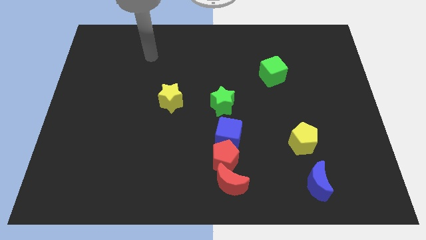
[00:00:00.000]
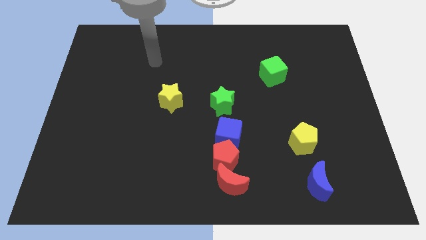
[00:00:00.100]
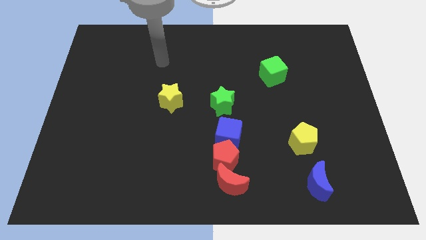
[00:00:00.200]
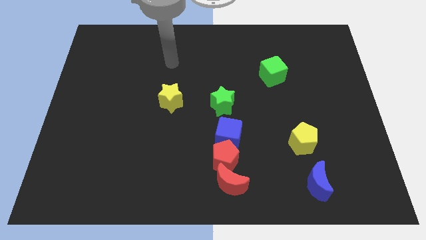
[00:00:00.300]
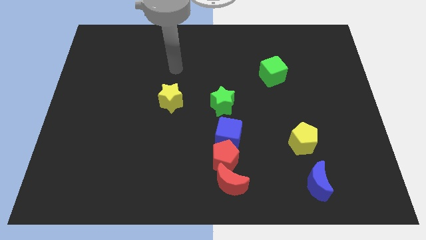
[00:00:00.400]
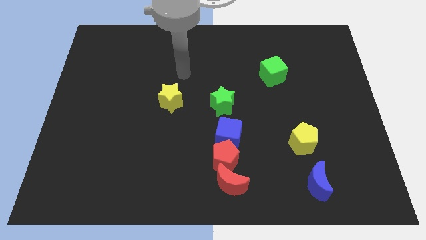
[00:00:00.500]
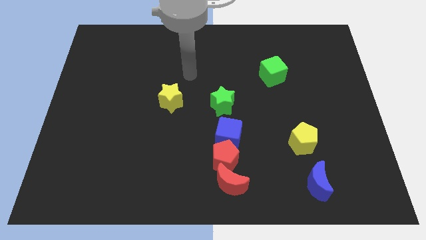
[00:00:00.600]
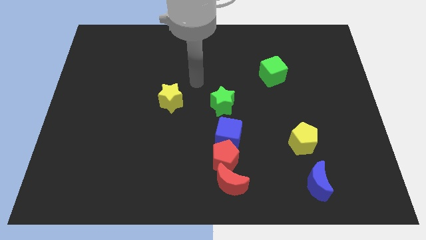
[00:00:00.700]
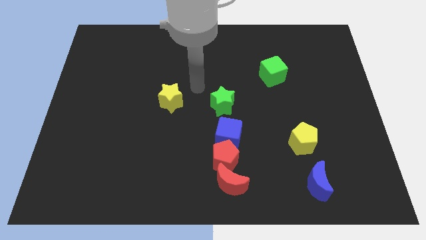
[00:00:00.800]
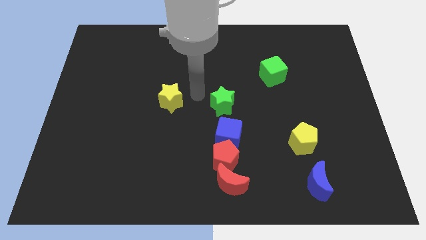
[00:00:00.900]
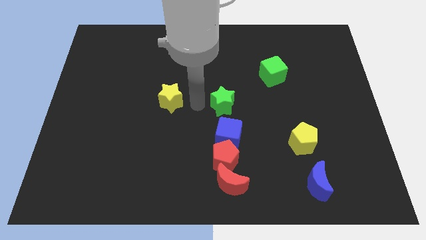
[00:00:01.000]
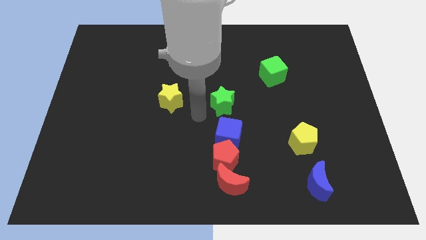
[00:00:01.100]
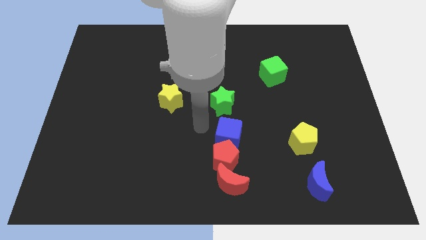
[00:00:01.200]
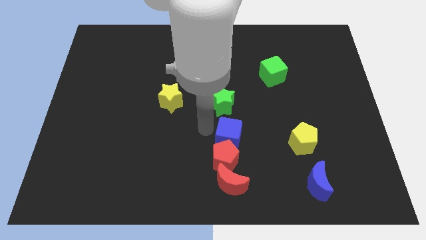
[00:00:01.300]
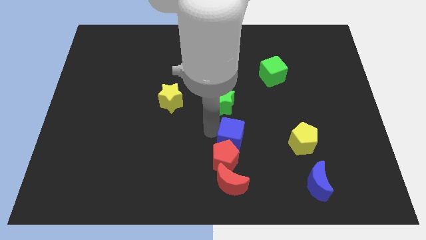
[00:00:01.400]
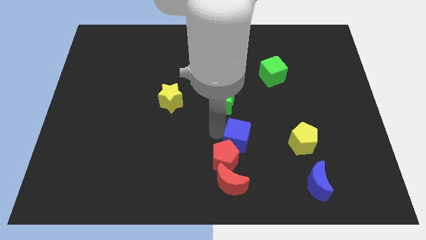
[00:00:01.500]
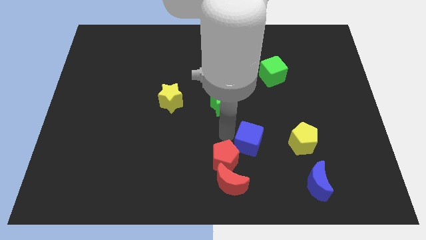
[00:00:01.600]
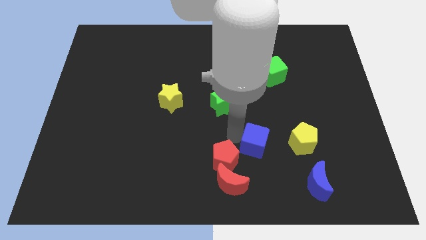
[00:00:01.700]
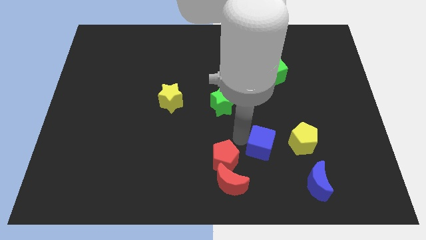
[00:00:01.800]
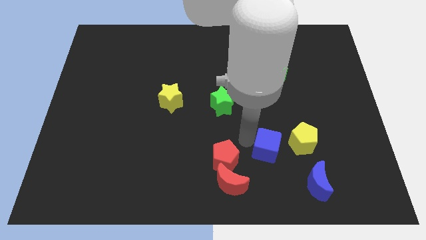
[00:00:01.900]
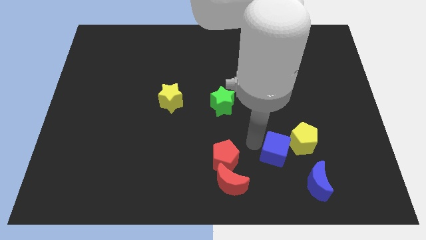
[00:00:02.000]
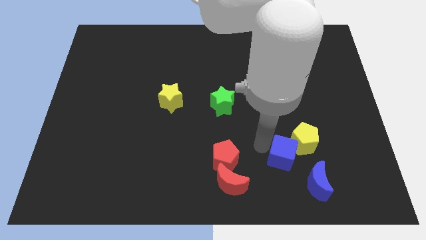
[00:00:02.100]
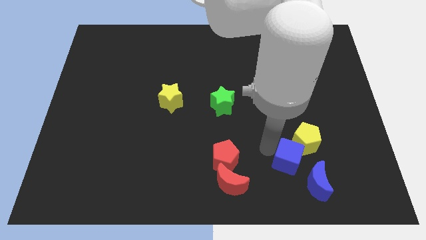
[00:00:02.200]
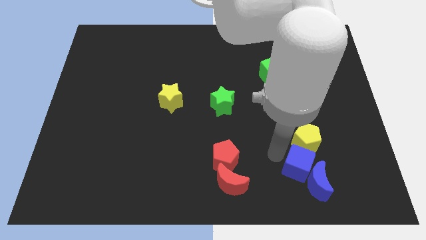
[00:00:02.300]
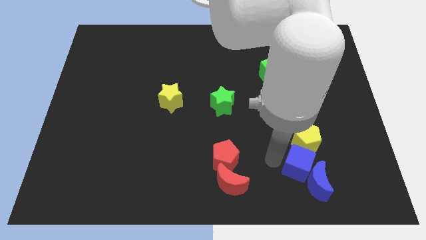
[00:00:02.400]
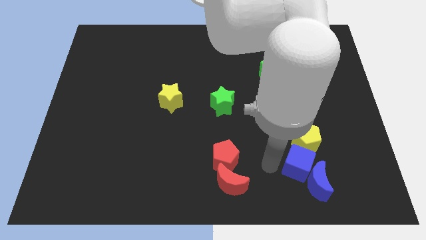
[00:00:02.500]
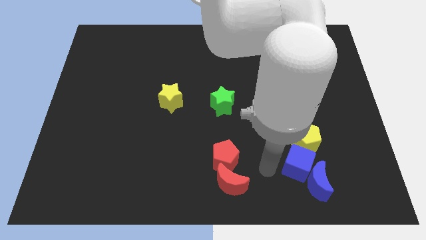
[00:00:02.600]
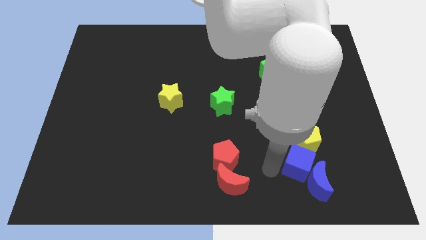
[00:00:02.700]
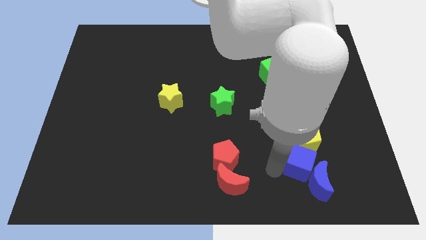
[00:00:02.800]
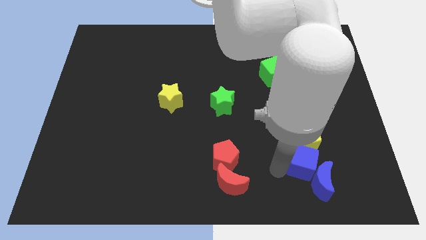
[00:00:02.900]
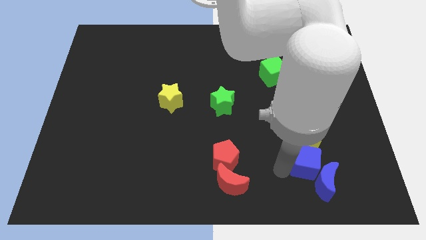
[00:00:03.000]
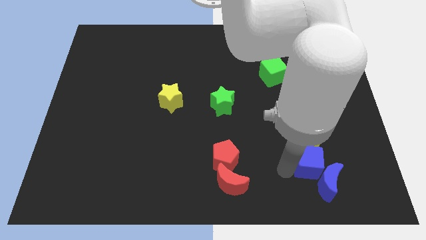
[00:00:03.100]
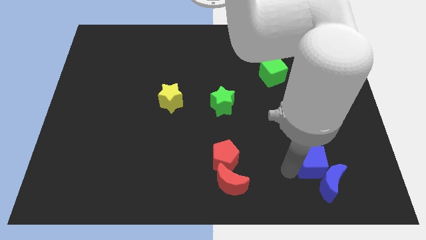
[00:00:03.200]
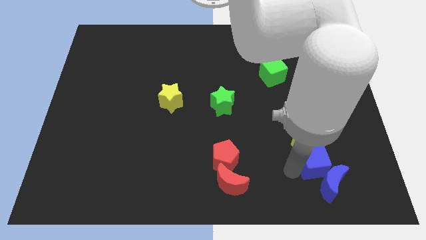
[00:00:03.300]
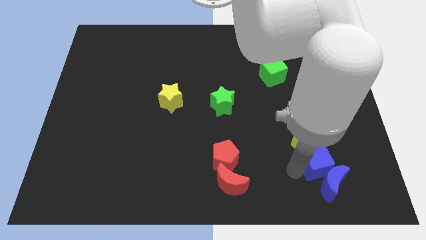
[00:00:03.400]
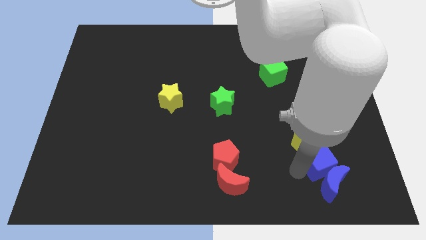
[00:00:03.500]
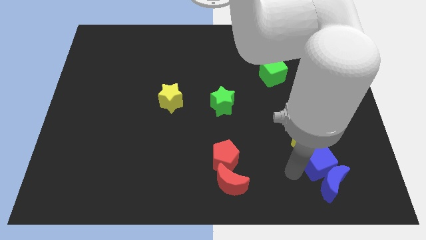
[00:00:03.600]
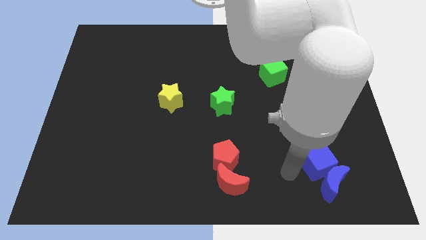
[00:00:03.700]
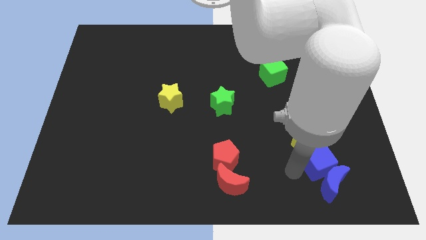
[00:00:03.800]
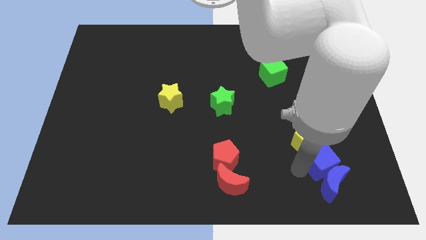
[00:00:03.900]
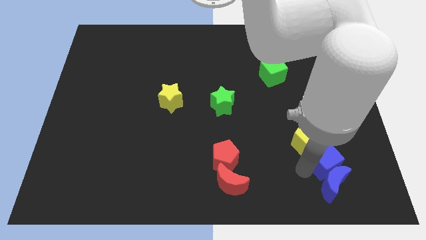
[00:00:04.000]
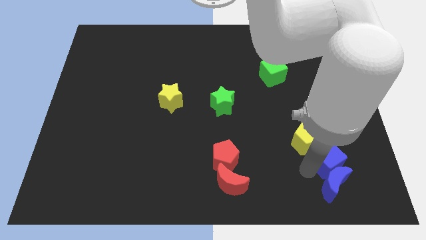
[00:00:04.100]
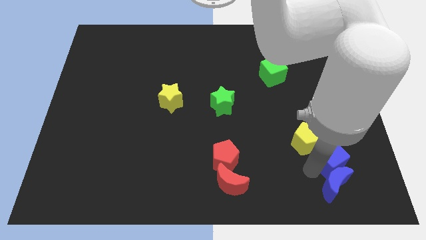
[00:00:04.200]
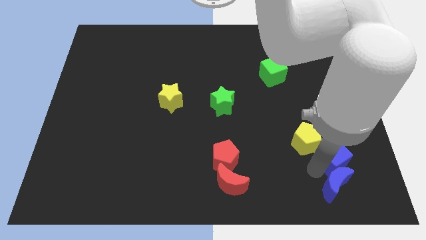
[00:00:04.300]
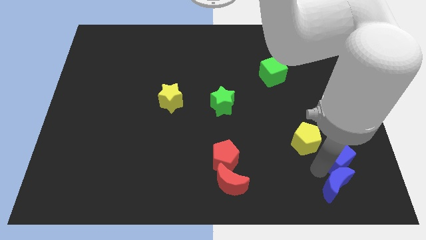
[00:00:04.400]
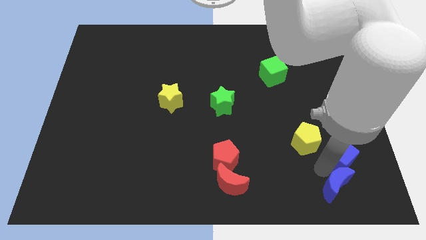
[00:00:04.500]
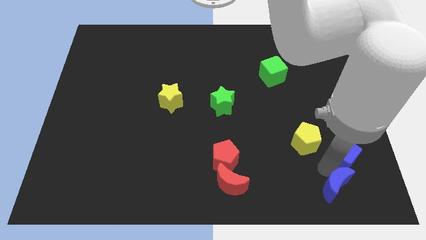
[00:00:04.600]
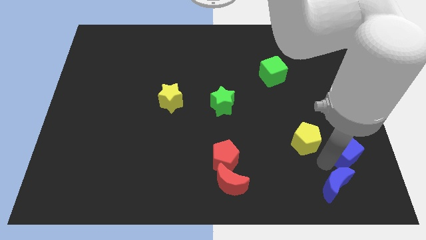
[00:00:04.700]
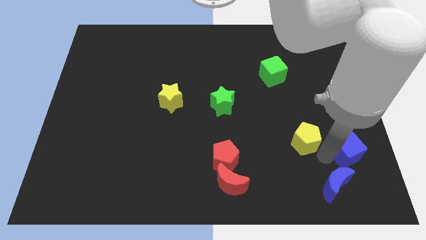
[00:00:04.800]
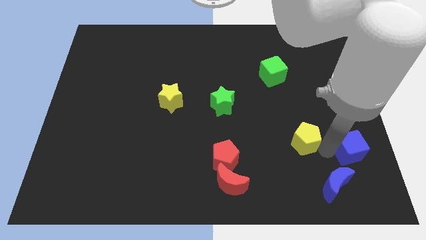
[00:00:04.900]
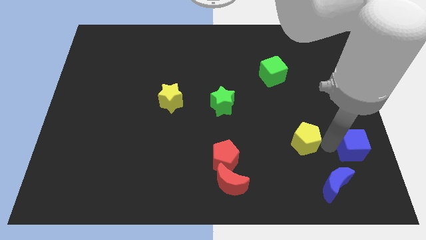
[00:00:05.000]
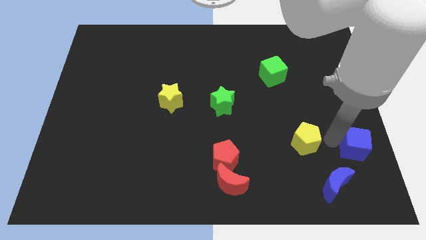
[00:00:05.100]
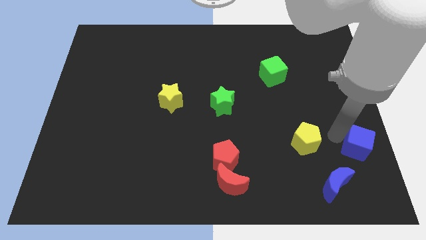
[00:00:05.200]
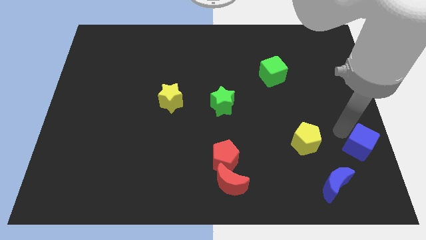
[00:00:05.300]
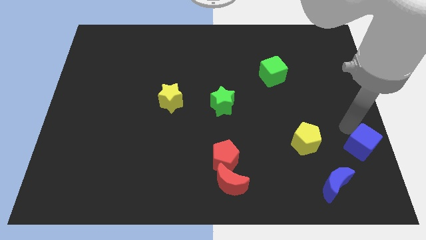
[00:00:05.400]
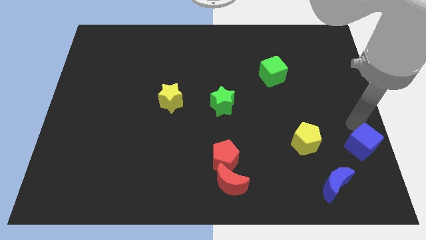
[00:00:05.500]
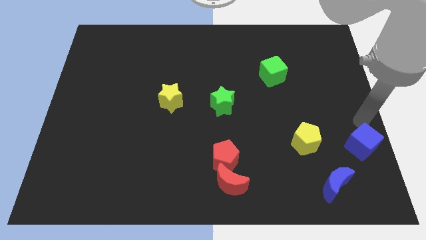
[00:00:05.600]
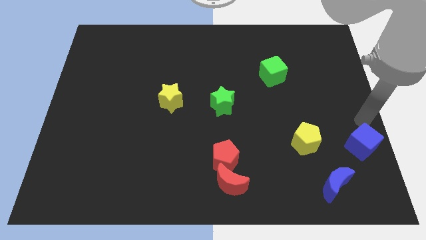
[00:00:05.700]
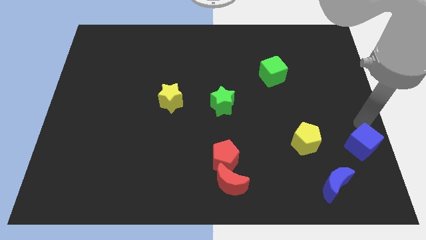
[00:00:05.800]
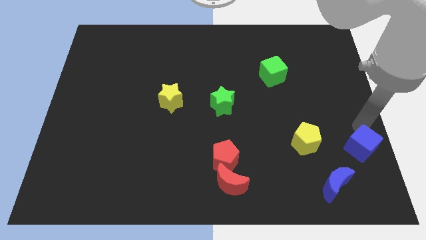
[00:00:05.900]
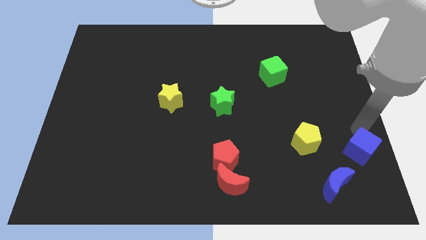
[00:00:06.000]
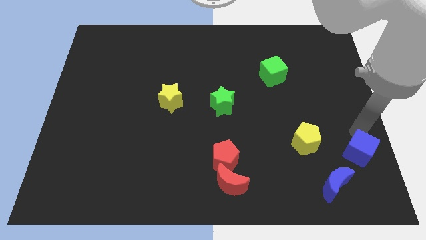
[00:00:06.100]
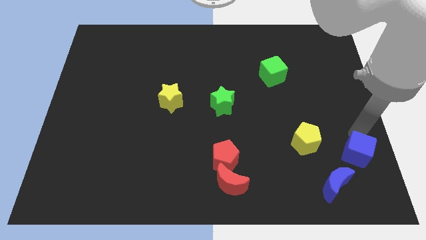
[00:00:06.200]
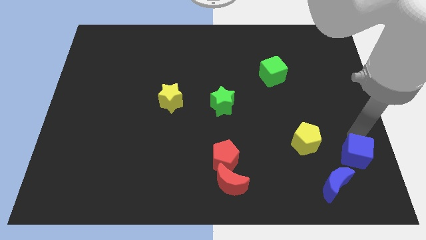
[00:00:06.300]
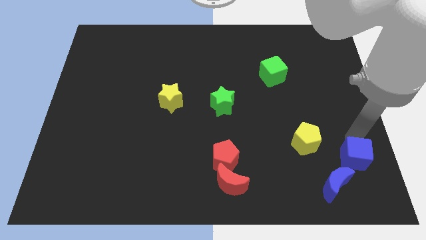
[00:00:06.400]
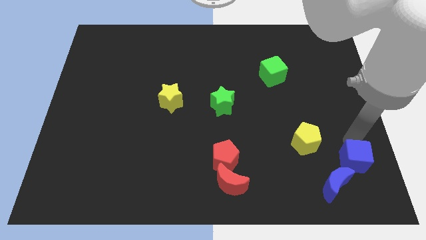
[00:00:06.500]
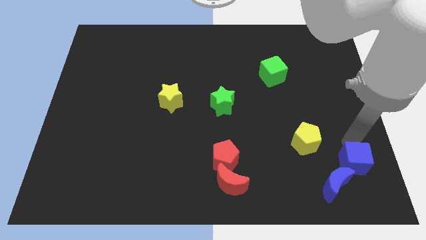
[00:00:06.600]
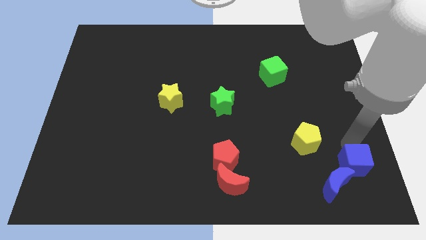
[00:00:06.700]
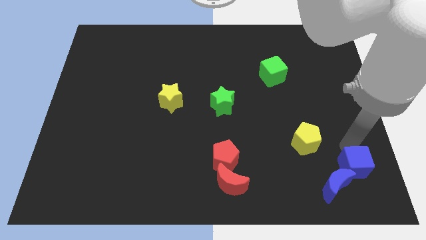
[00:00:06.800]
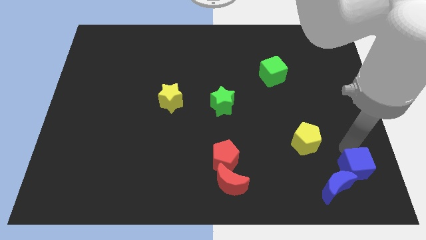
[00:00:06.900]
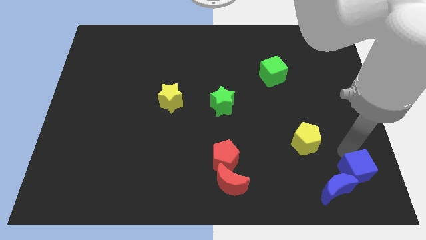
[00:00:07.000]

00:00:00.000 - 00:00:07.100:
move the blue cube to the bottom right
